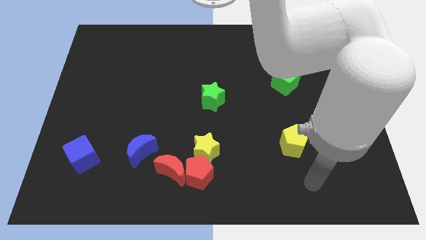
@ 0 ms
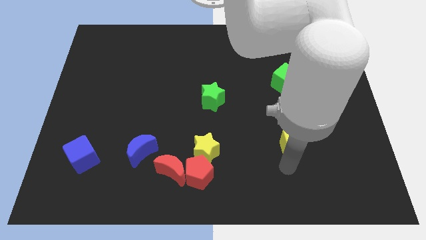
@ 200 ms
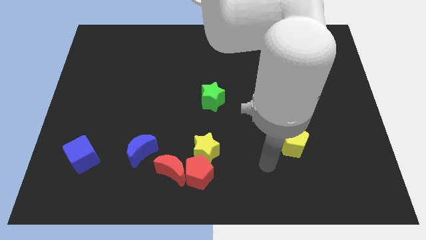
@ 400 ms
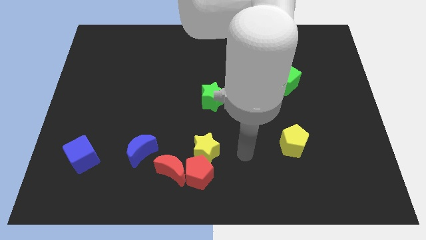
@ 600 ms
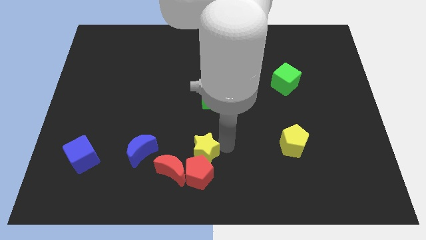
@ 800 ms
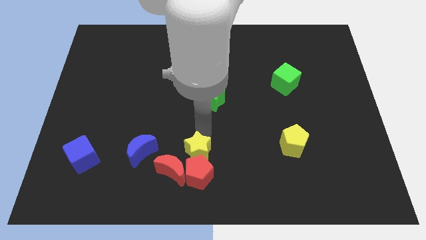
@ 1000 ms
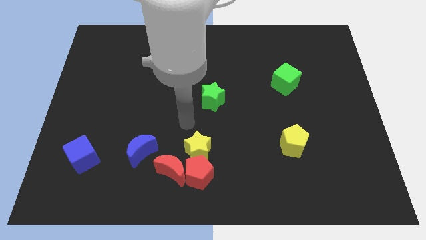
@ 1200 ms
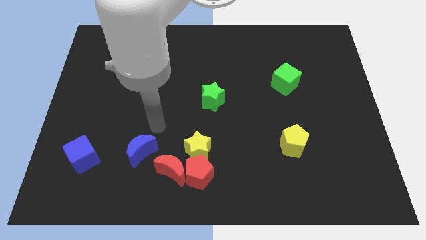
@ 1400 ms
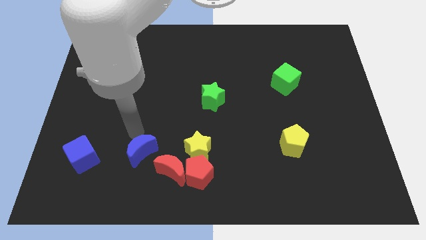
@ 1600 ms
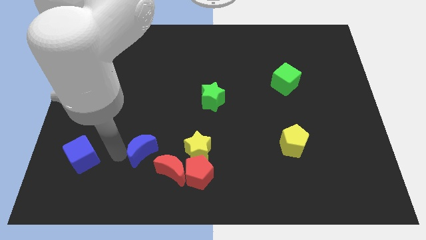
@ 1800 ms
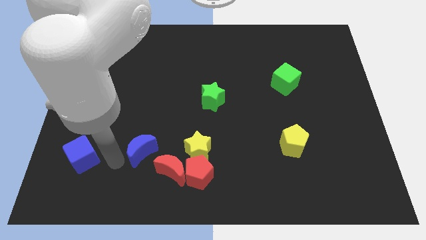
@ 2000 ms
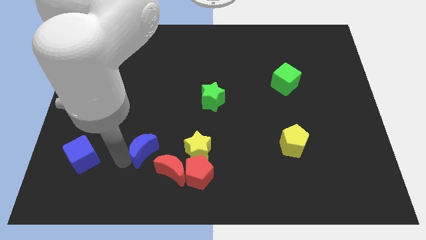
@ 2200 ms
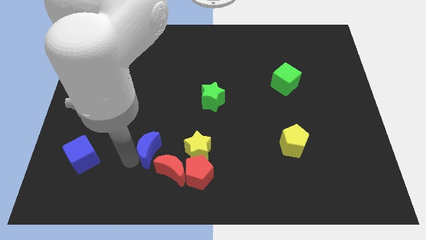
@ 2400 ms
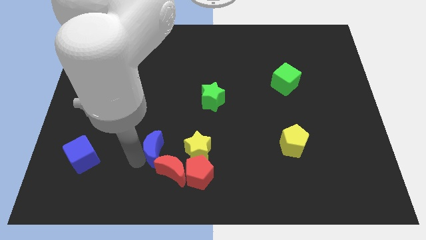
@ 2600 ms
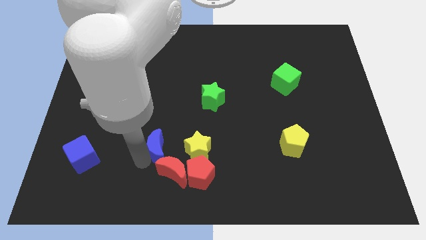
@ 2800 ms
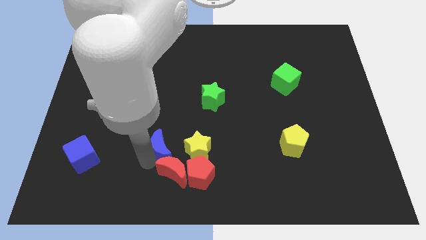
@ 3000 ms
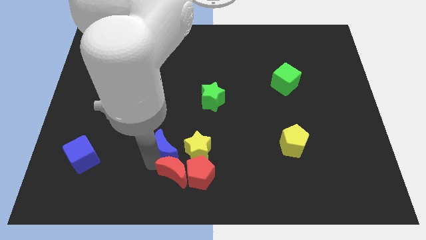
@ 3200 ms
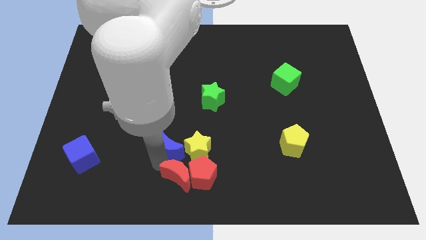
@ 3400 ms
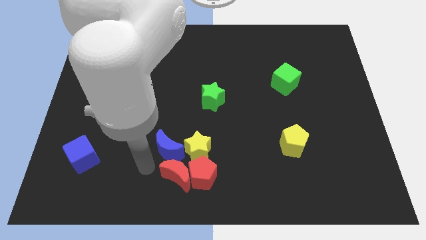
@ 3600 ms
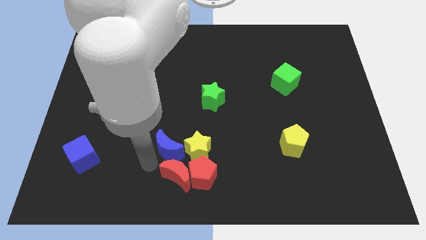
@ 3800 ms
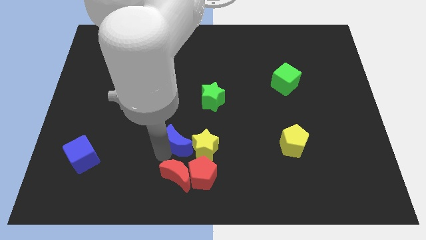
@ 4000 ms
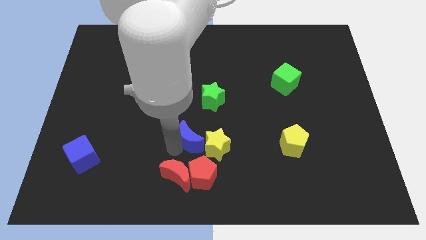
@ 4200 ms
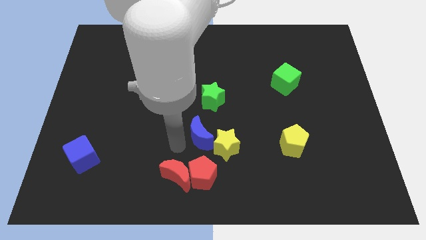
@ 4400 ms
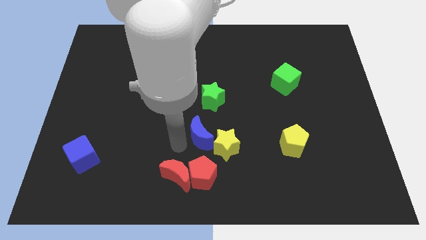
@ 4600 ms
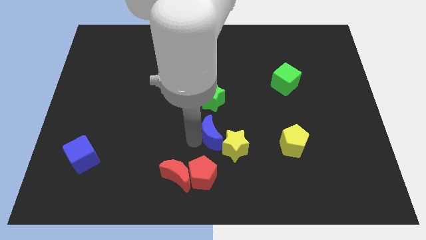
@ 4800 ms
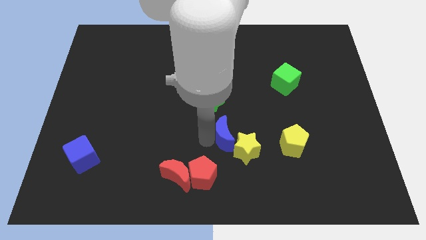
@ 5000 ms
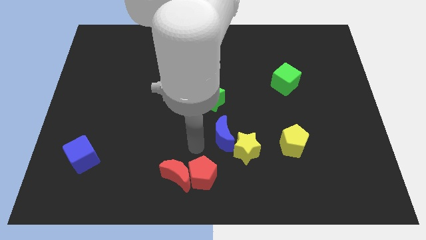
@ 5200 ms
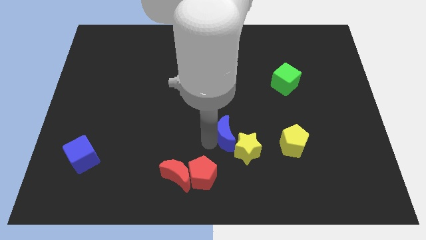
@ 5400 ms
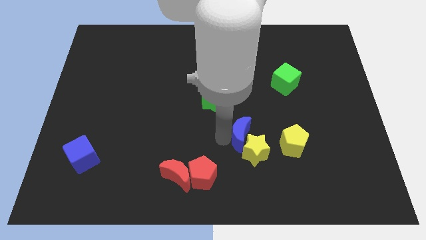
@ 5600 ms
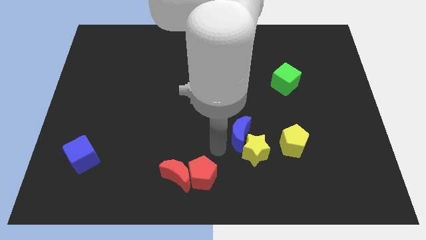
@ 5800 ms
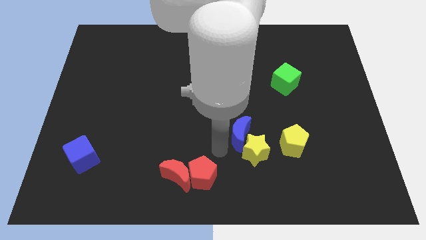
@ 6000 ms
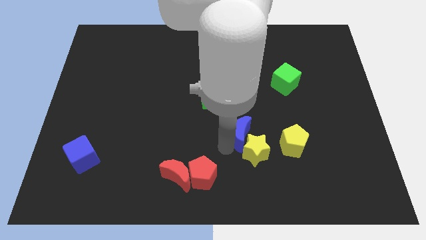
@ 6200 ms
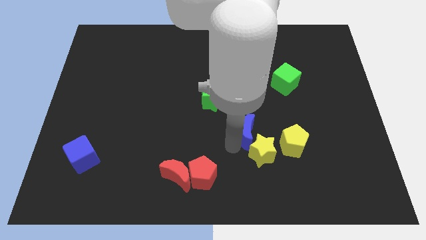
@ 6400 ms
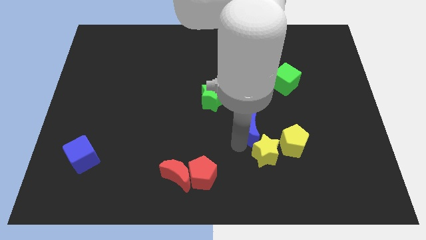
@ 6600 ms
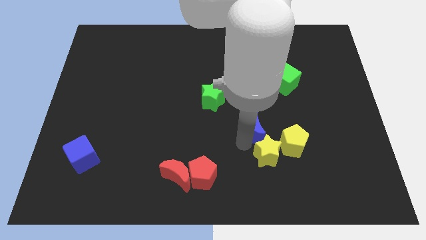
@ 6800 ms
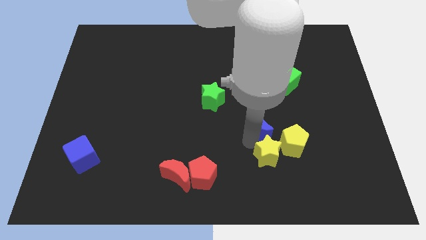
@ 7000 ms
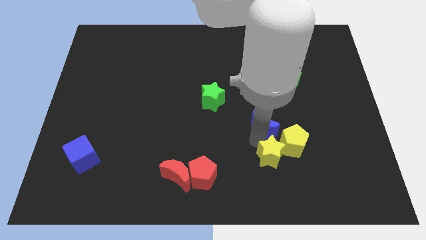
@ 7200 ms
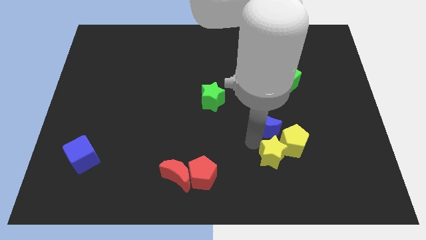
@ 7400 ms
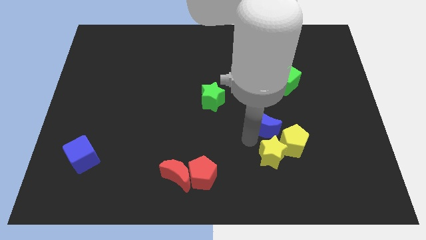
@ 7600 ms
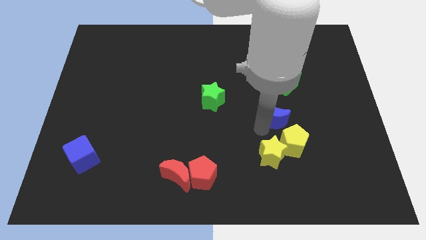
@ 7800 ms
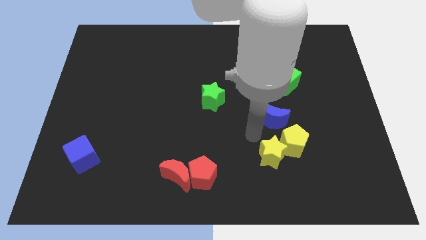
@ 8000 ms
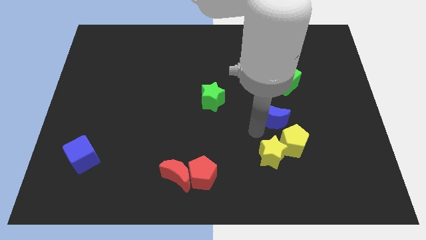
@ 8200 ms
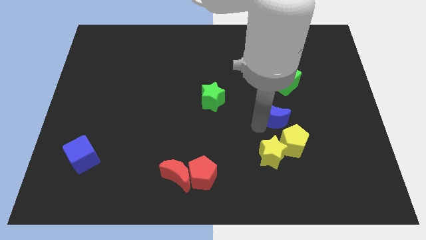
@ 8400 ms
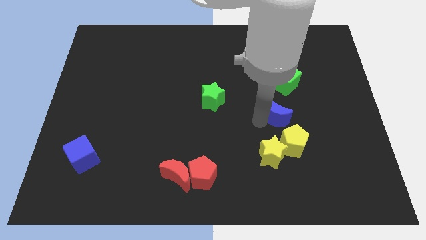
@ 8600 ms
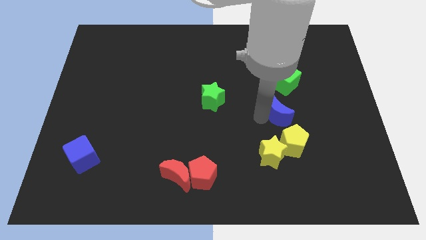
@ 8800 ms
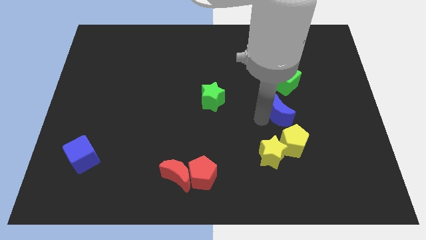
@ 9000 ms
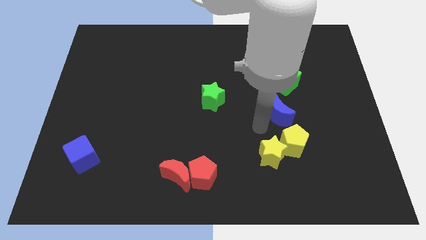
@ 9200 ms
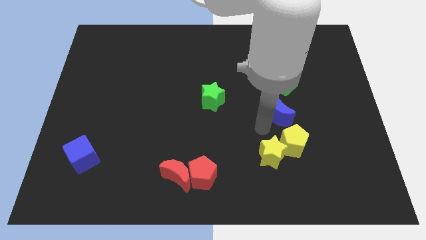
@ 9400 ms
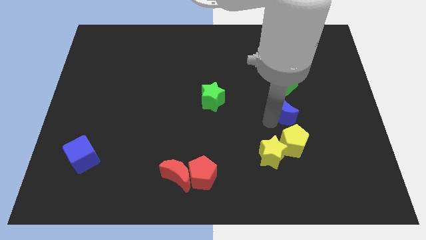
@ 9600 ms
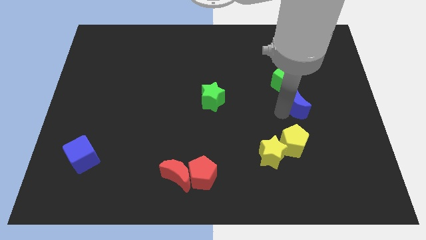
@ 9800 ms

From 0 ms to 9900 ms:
push the blue moon to the bottom right of the green cube

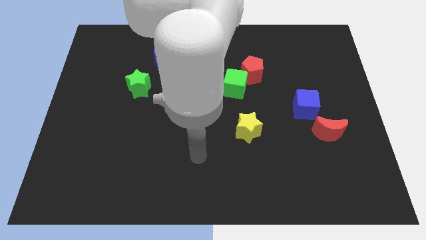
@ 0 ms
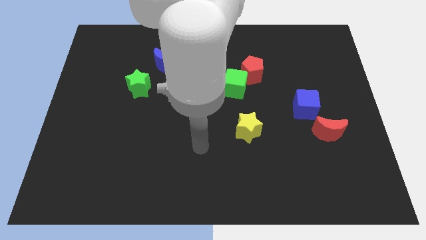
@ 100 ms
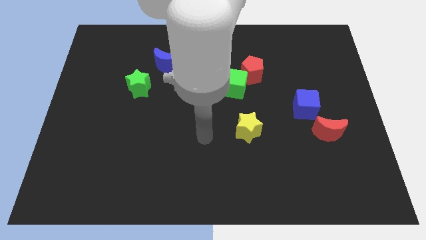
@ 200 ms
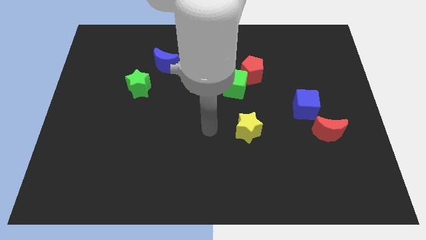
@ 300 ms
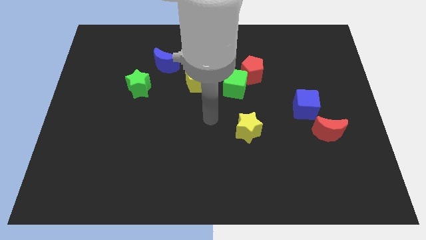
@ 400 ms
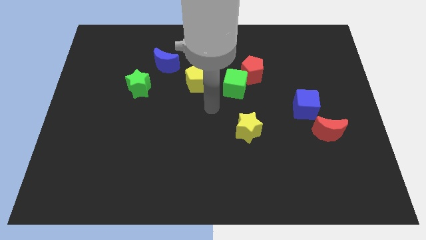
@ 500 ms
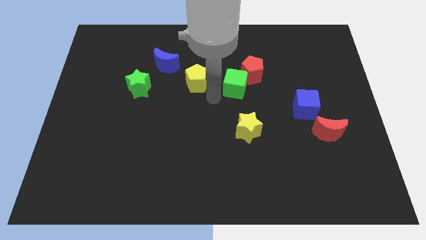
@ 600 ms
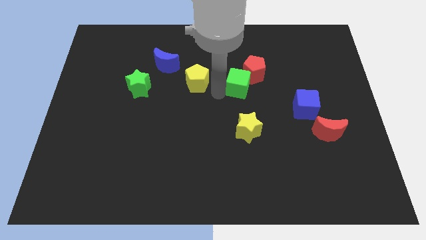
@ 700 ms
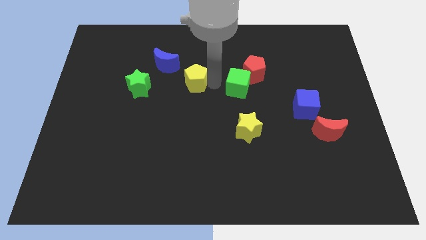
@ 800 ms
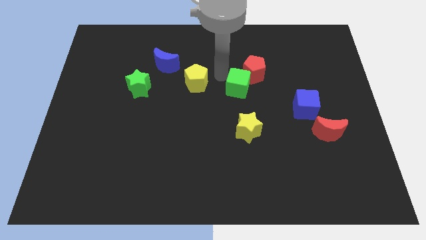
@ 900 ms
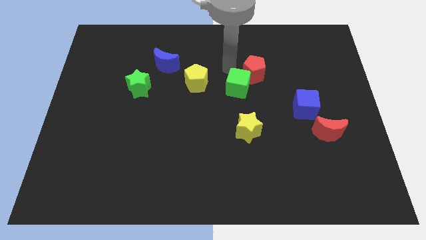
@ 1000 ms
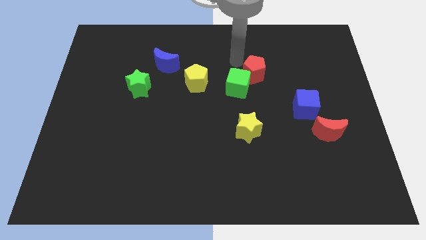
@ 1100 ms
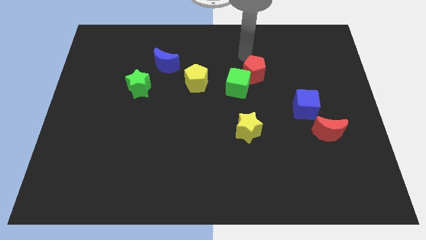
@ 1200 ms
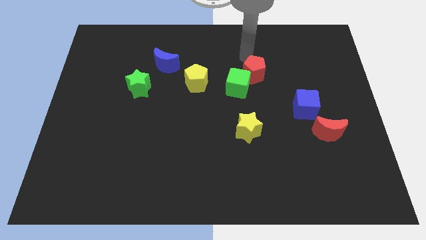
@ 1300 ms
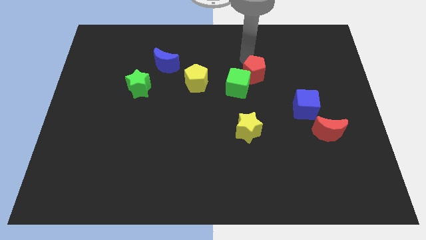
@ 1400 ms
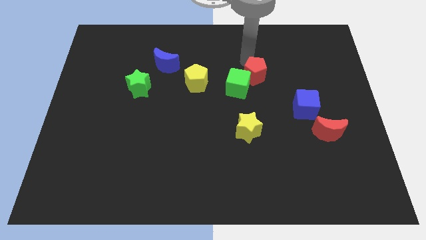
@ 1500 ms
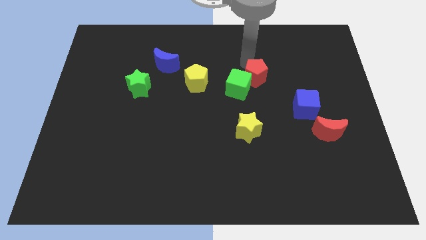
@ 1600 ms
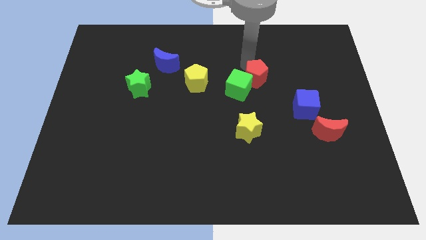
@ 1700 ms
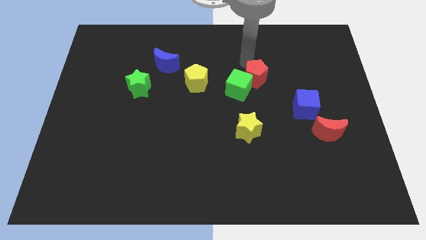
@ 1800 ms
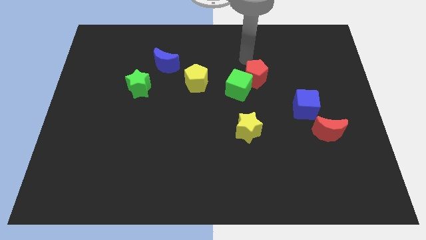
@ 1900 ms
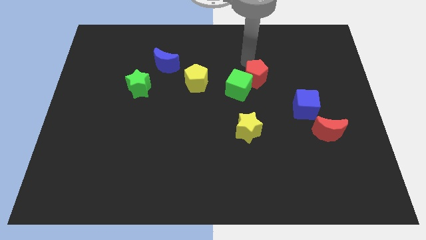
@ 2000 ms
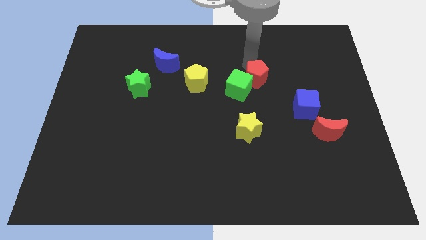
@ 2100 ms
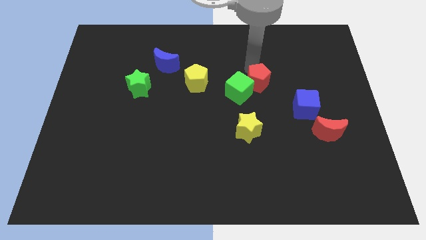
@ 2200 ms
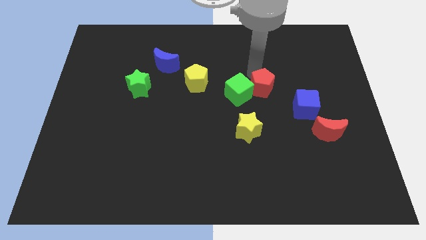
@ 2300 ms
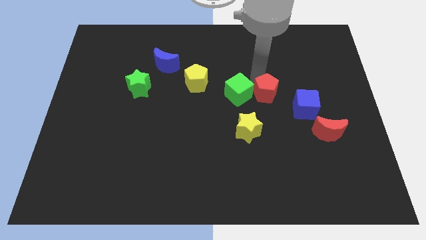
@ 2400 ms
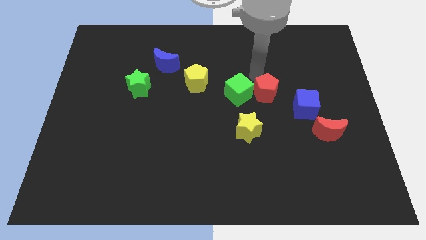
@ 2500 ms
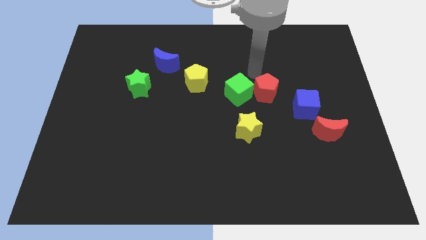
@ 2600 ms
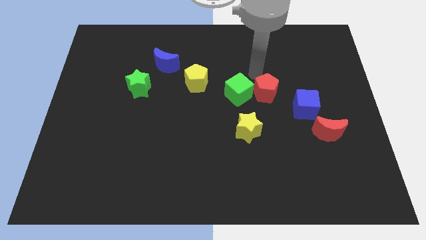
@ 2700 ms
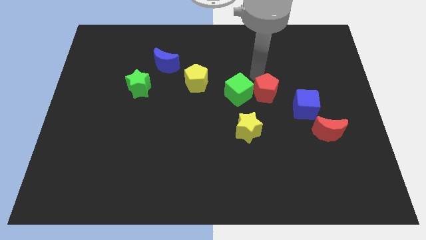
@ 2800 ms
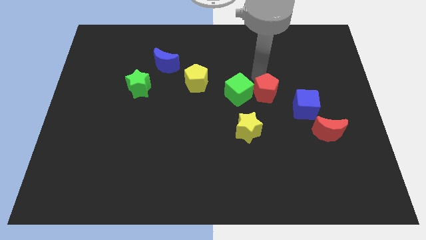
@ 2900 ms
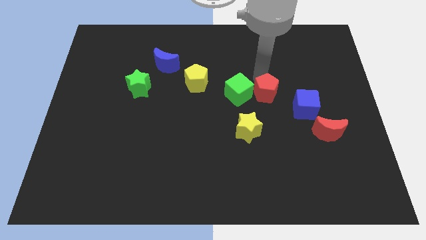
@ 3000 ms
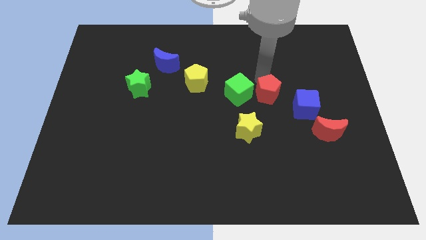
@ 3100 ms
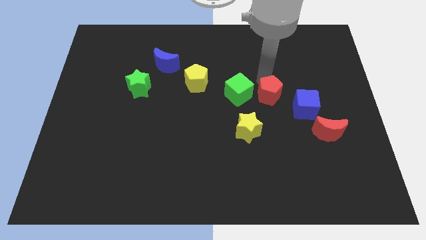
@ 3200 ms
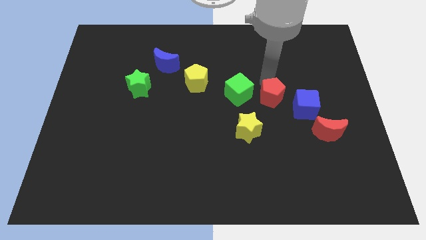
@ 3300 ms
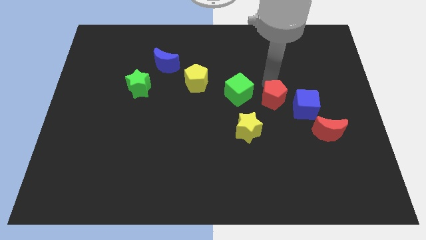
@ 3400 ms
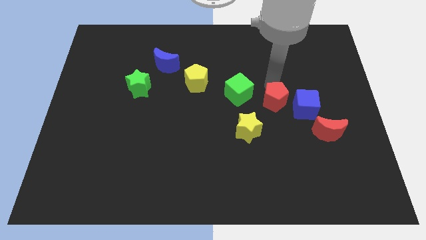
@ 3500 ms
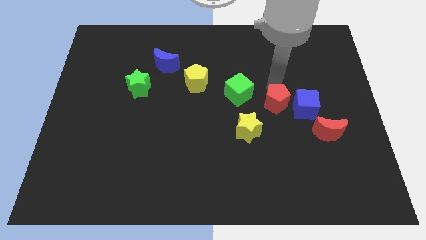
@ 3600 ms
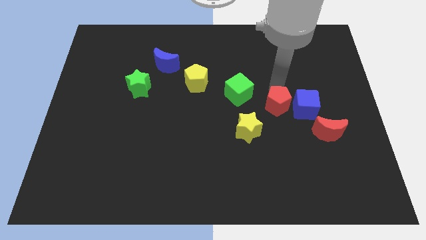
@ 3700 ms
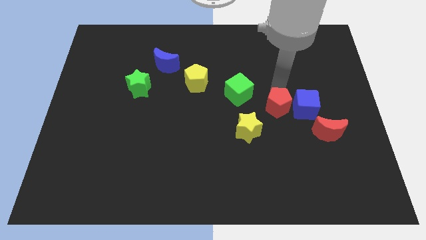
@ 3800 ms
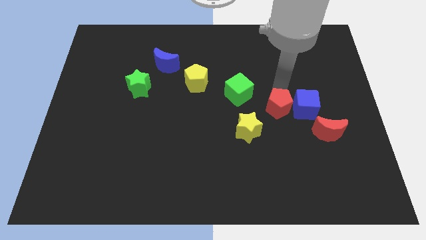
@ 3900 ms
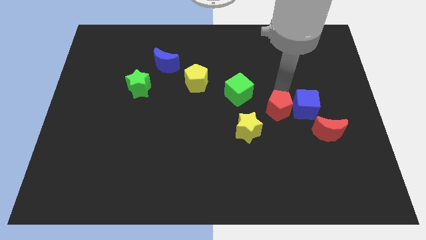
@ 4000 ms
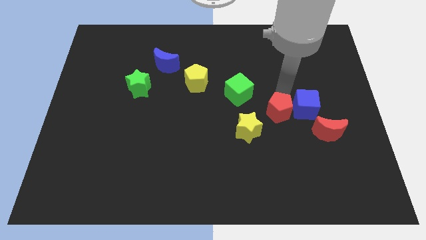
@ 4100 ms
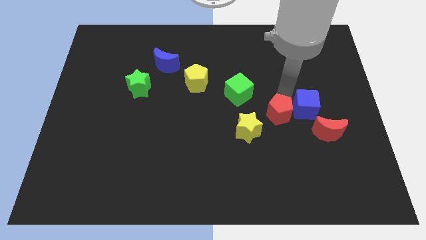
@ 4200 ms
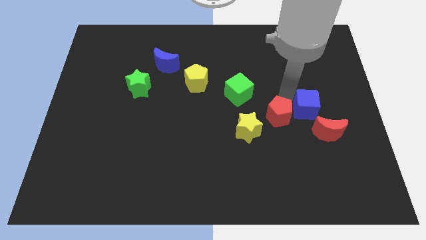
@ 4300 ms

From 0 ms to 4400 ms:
slide the red pentagon left of the red moon
